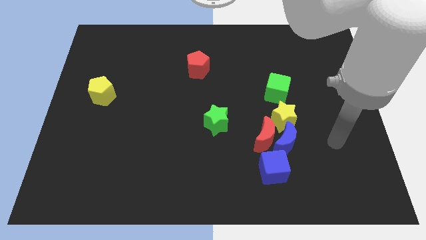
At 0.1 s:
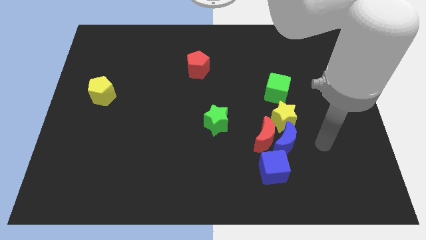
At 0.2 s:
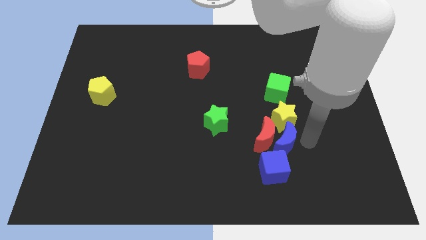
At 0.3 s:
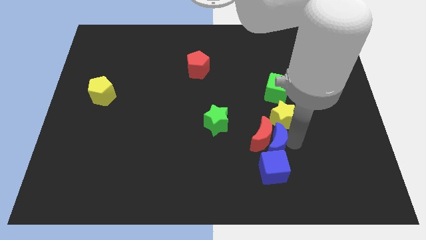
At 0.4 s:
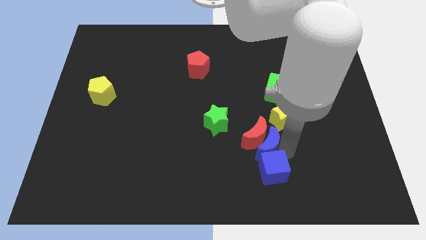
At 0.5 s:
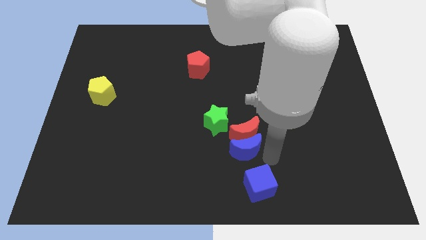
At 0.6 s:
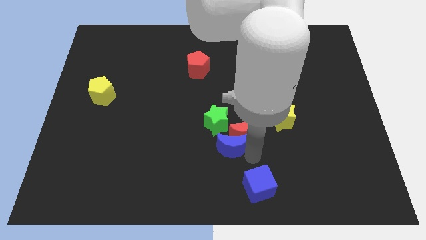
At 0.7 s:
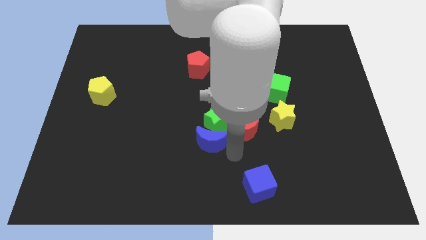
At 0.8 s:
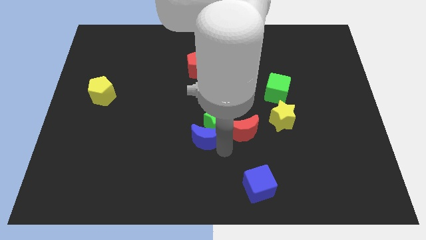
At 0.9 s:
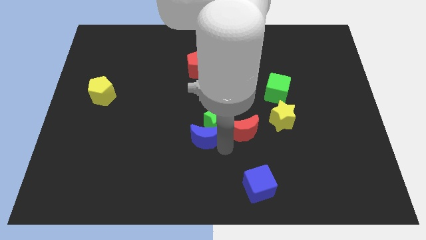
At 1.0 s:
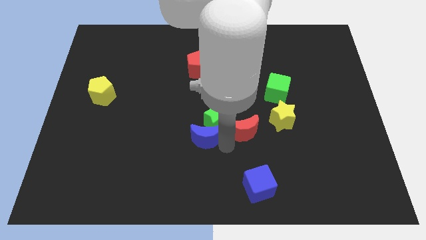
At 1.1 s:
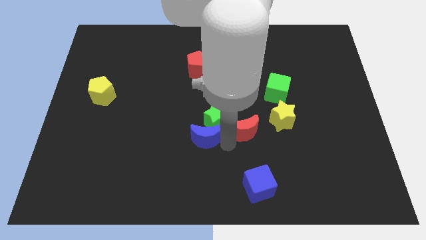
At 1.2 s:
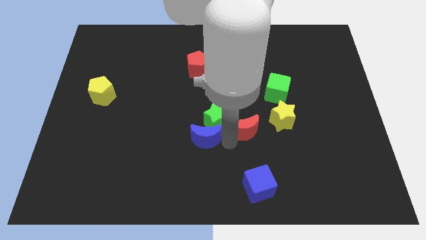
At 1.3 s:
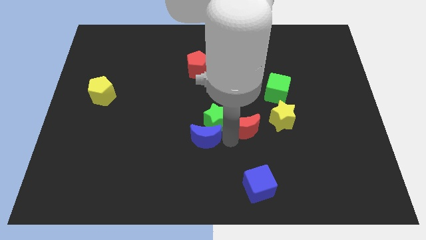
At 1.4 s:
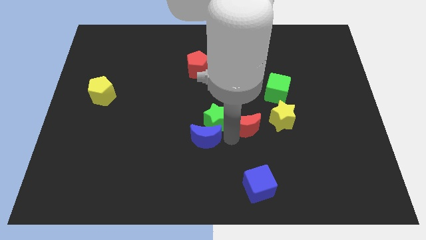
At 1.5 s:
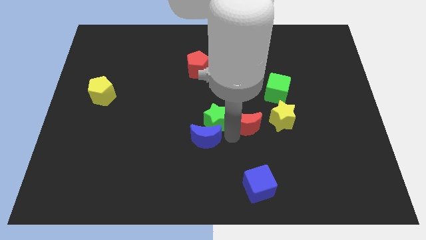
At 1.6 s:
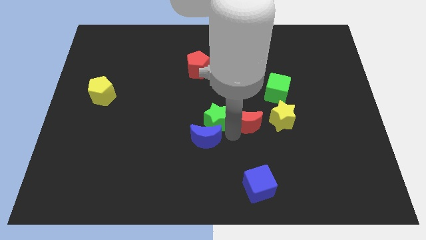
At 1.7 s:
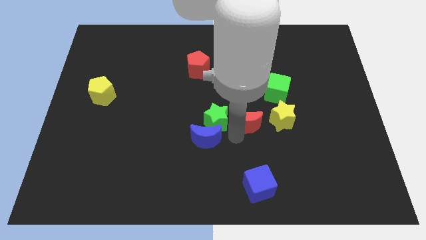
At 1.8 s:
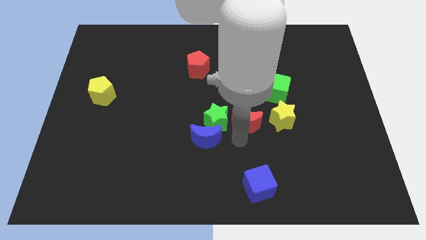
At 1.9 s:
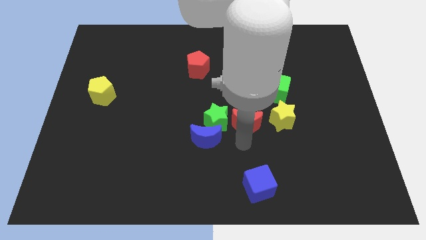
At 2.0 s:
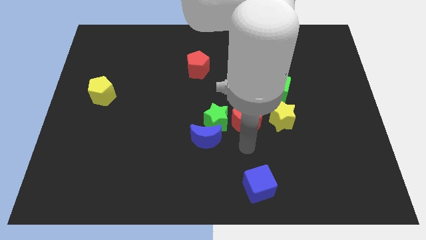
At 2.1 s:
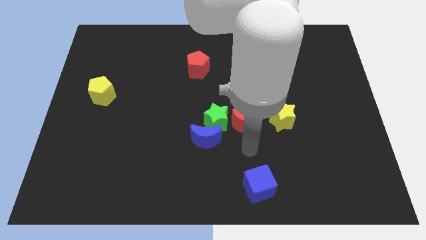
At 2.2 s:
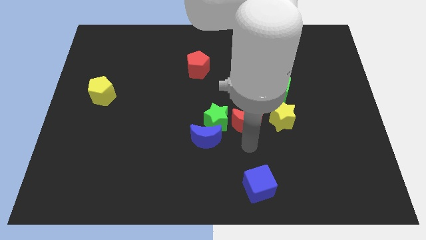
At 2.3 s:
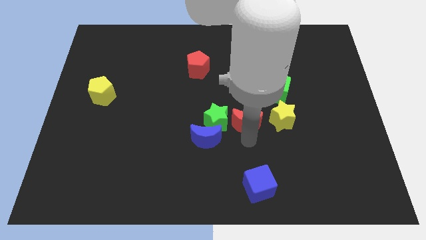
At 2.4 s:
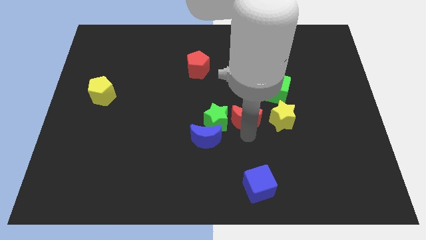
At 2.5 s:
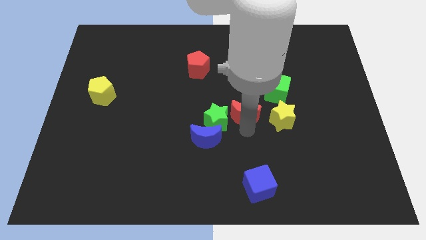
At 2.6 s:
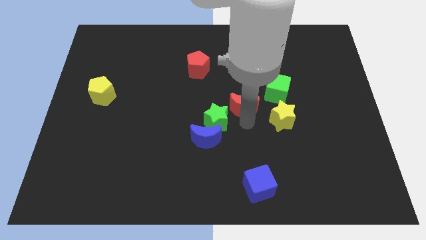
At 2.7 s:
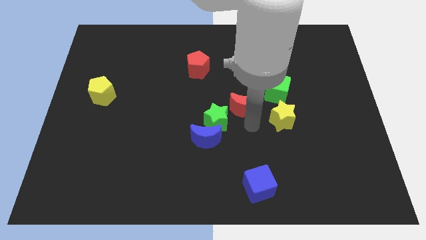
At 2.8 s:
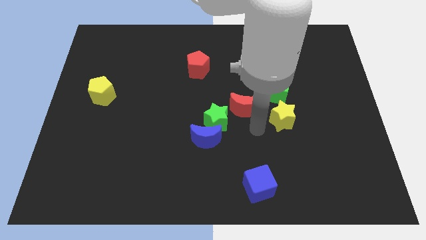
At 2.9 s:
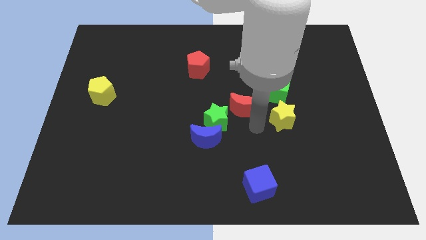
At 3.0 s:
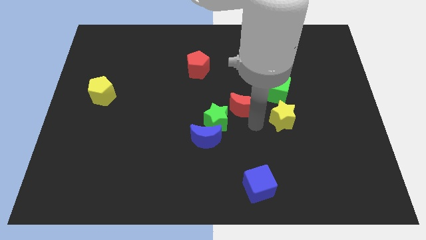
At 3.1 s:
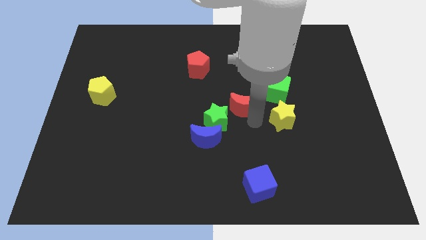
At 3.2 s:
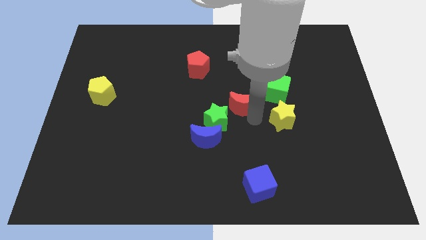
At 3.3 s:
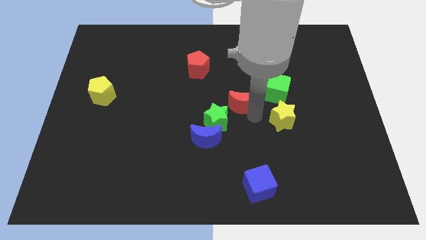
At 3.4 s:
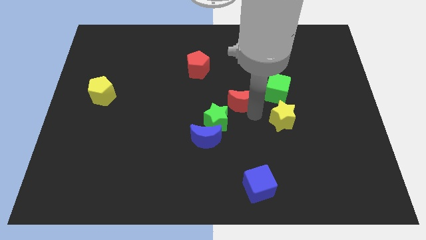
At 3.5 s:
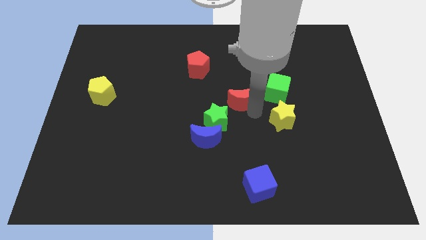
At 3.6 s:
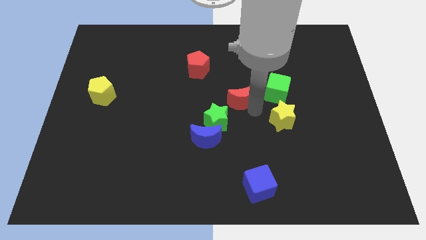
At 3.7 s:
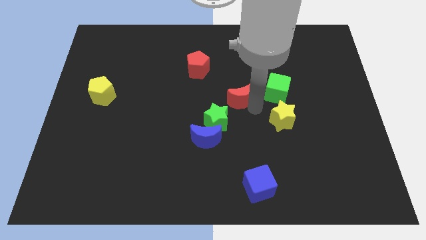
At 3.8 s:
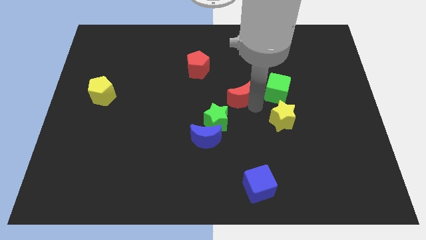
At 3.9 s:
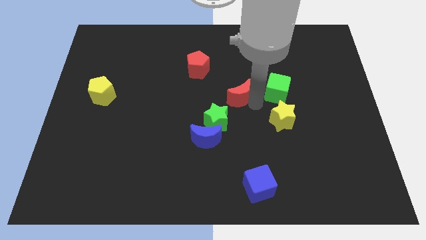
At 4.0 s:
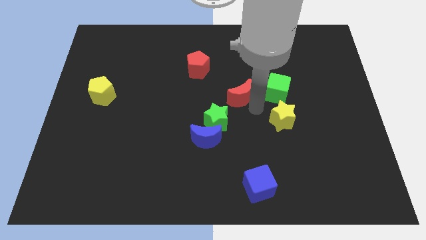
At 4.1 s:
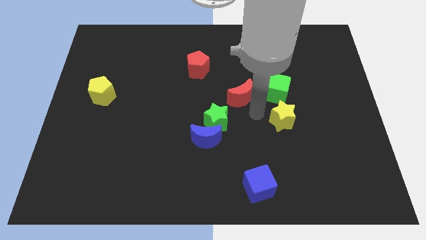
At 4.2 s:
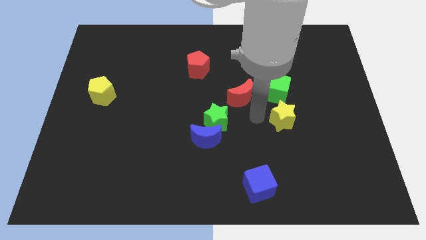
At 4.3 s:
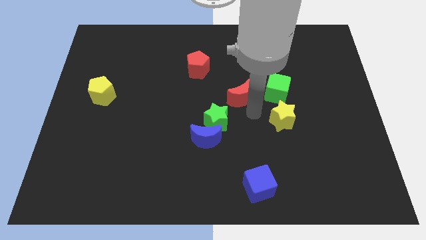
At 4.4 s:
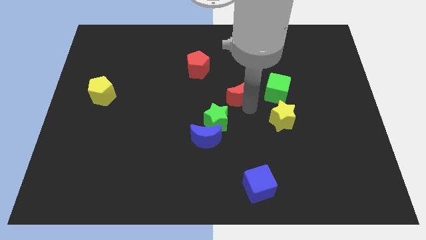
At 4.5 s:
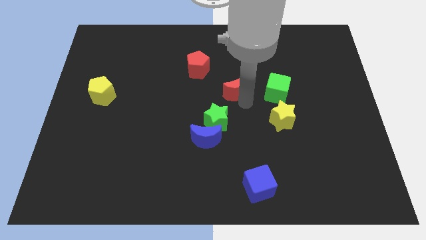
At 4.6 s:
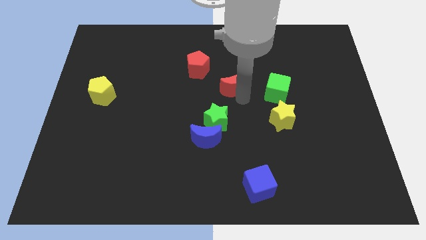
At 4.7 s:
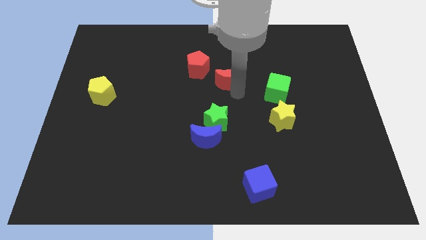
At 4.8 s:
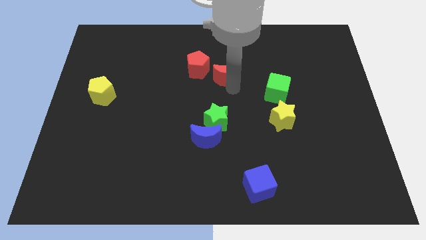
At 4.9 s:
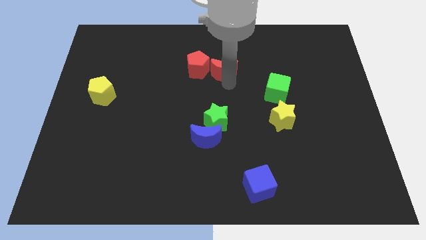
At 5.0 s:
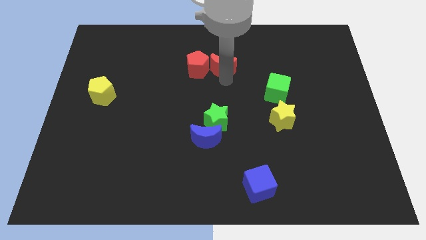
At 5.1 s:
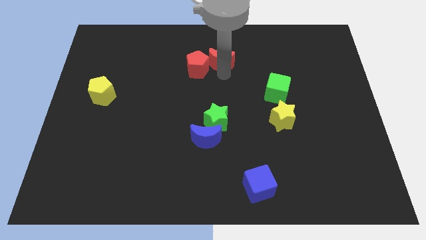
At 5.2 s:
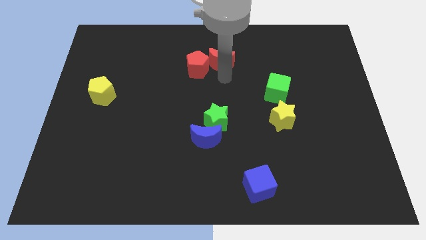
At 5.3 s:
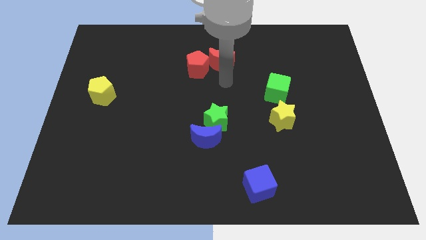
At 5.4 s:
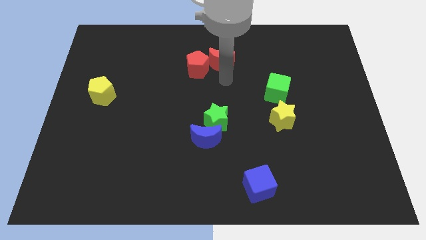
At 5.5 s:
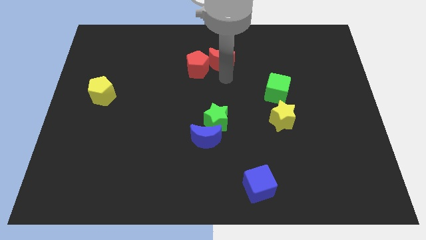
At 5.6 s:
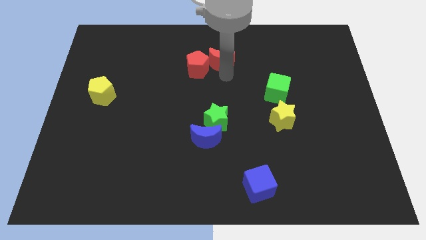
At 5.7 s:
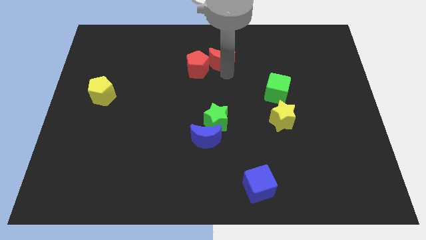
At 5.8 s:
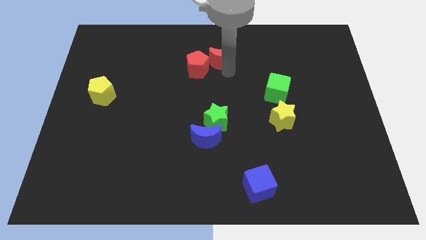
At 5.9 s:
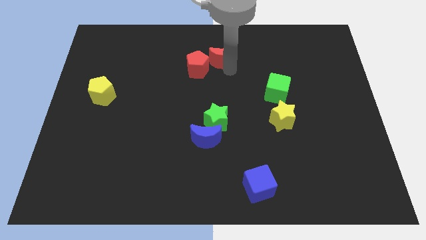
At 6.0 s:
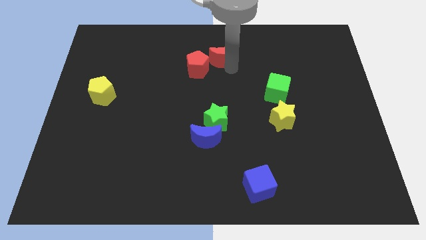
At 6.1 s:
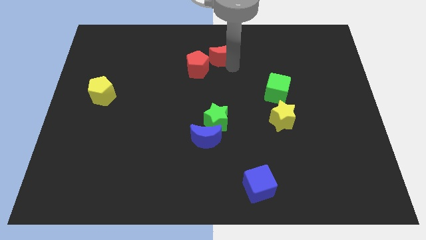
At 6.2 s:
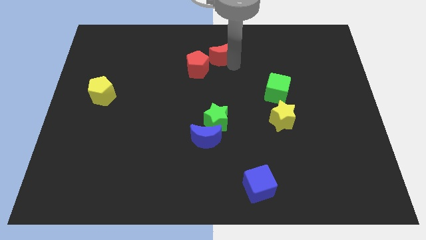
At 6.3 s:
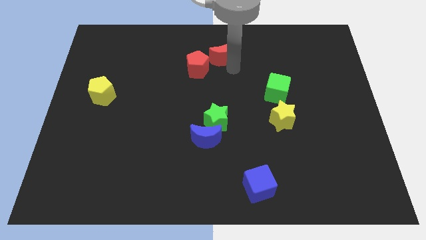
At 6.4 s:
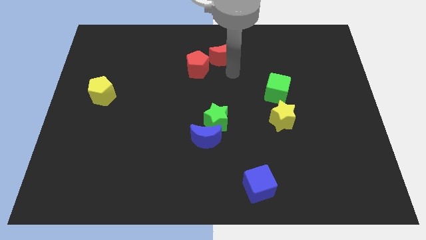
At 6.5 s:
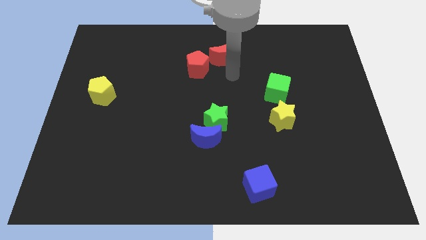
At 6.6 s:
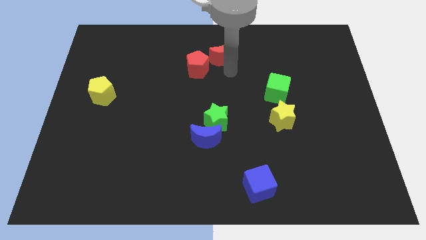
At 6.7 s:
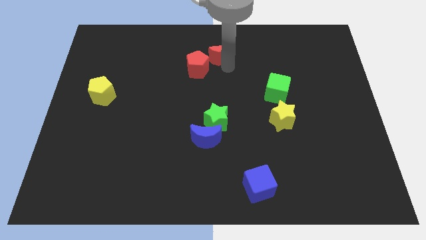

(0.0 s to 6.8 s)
move the red moon to the top side

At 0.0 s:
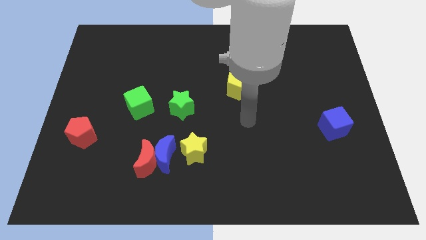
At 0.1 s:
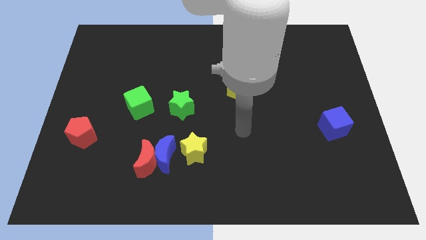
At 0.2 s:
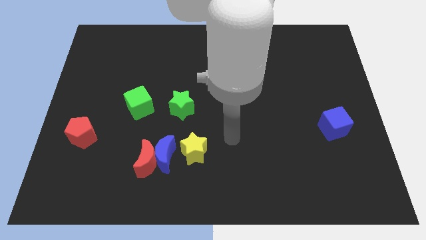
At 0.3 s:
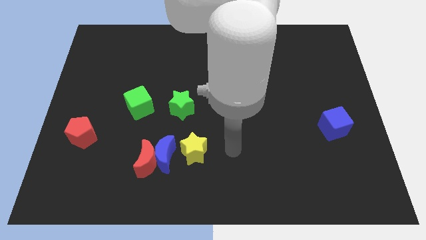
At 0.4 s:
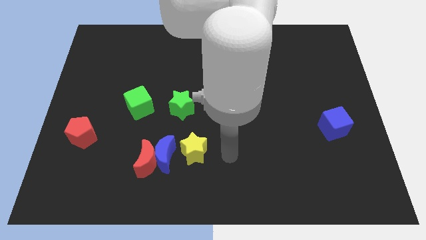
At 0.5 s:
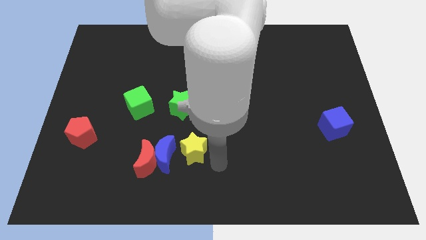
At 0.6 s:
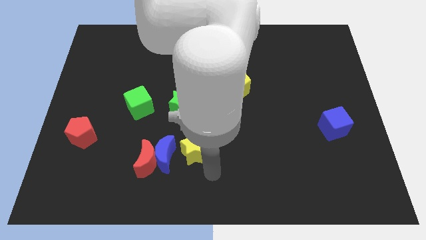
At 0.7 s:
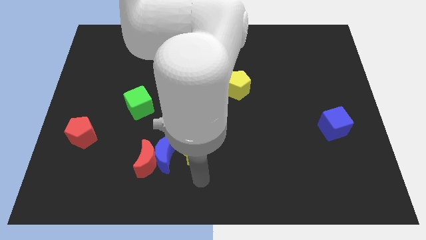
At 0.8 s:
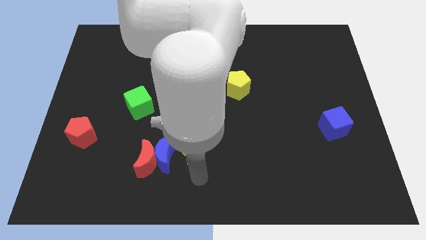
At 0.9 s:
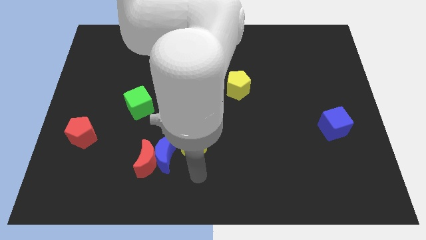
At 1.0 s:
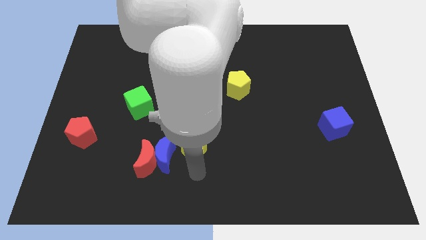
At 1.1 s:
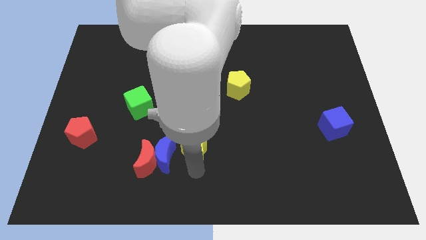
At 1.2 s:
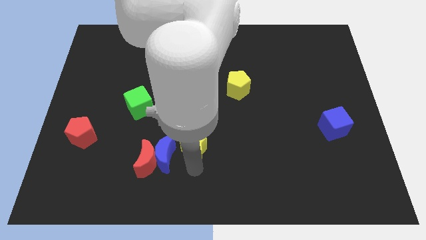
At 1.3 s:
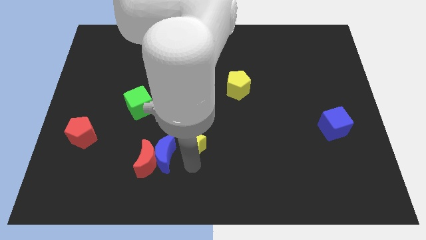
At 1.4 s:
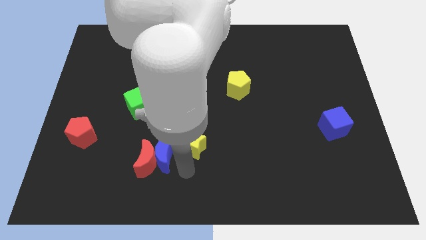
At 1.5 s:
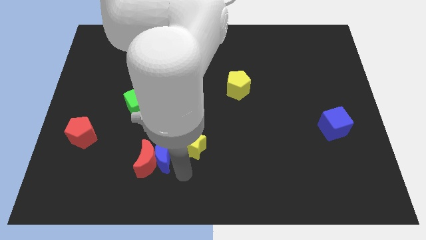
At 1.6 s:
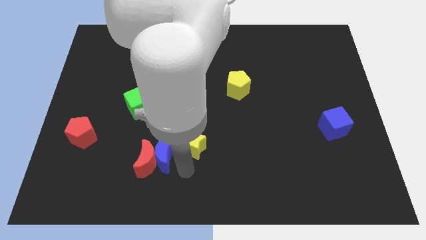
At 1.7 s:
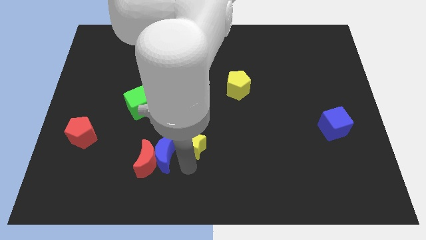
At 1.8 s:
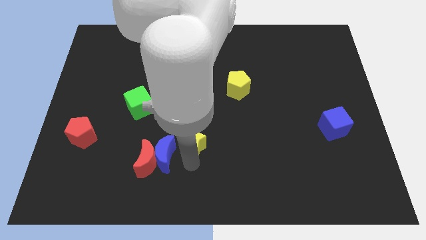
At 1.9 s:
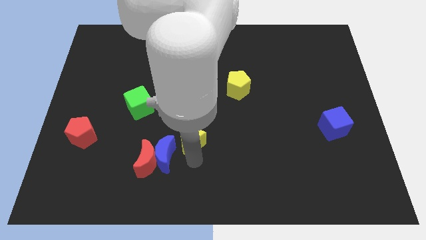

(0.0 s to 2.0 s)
push the yellow star to the middle of the board
